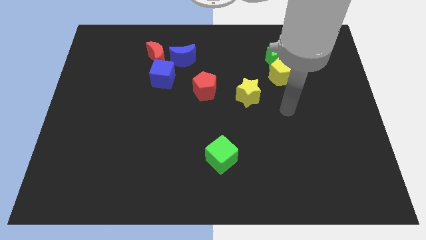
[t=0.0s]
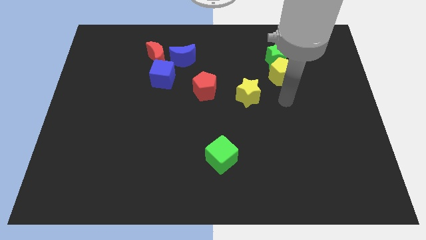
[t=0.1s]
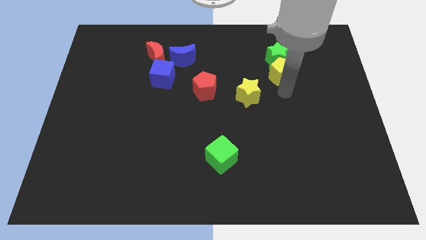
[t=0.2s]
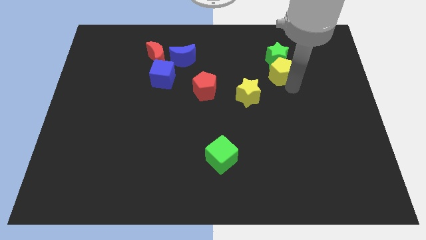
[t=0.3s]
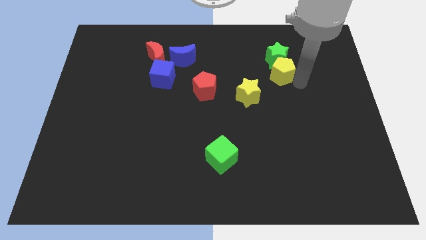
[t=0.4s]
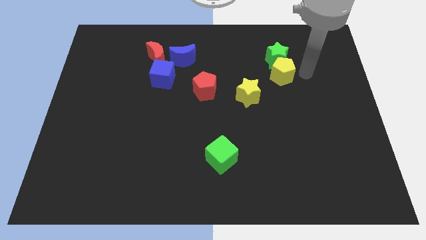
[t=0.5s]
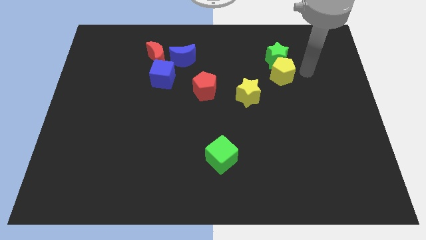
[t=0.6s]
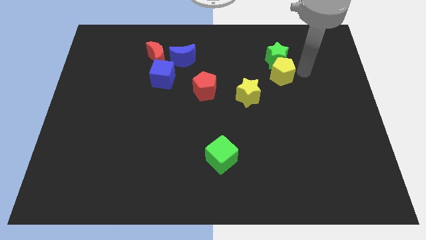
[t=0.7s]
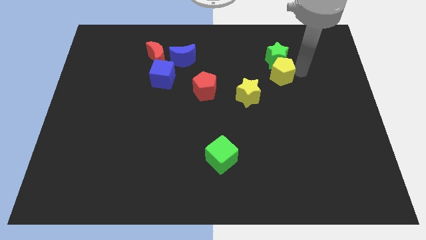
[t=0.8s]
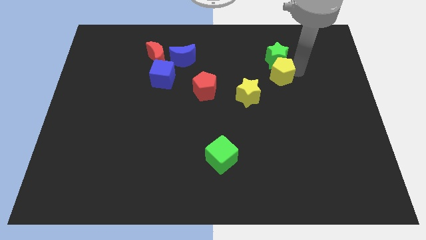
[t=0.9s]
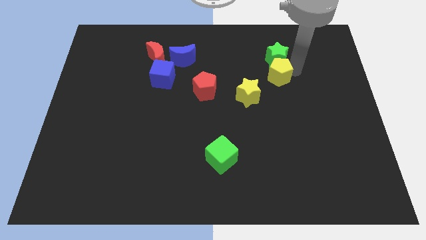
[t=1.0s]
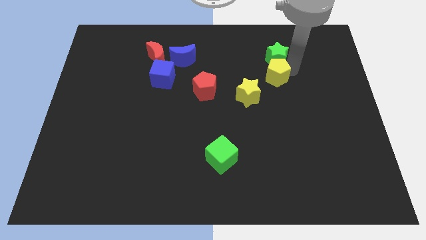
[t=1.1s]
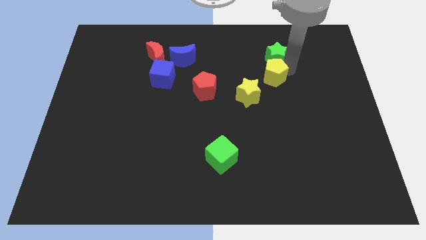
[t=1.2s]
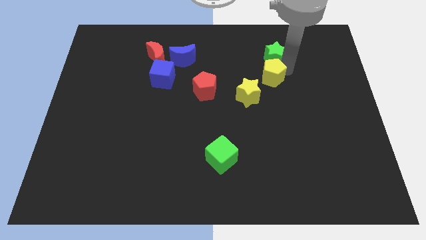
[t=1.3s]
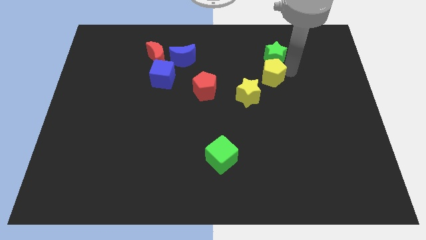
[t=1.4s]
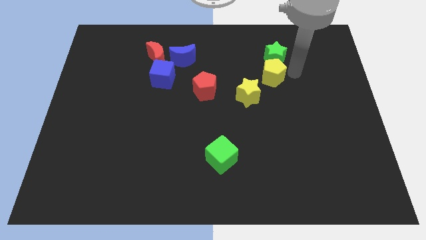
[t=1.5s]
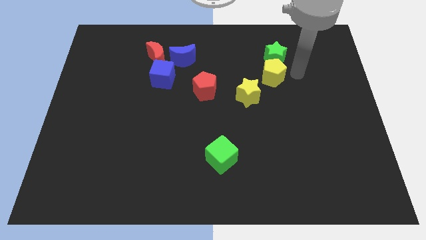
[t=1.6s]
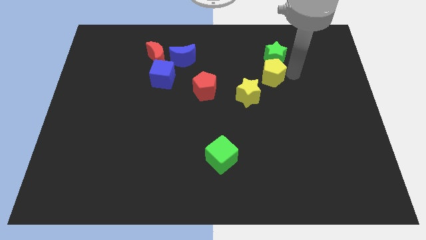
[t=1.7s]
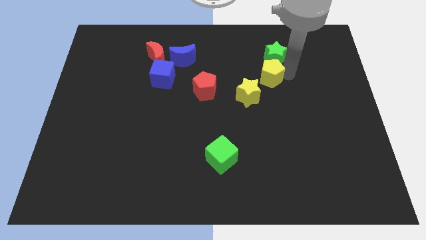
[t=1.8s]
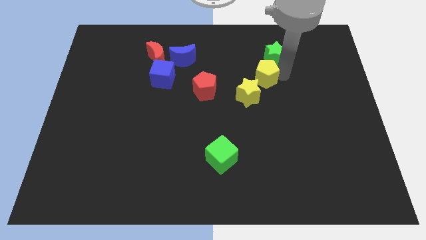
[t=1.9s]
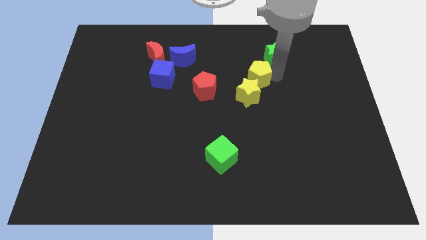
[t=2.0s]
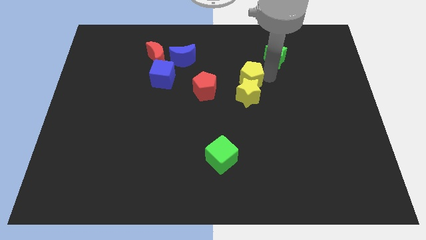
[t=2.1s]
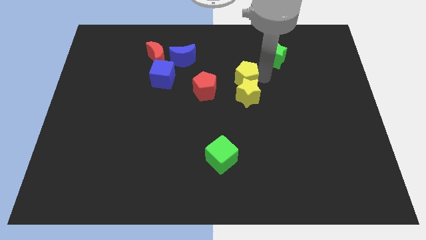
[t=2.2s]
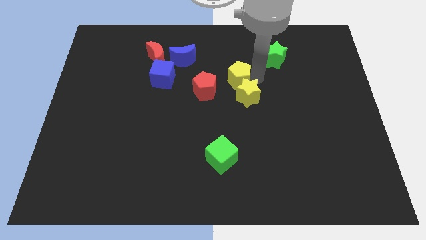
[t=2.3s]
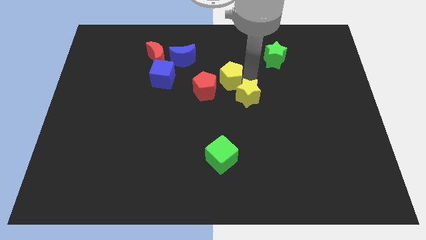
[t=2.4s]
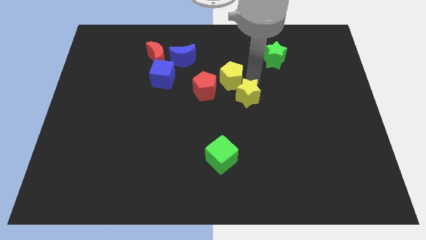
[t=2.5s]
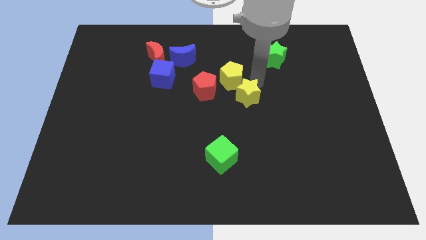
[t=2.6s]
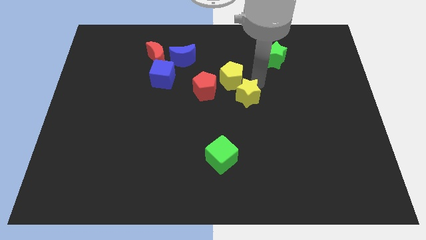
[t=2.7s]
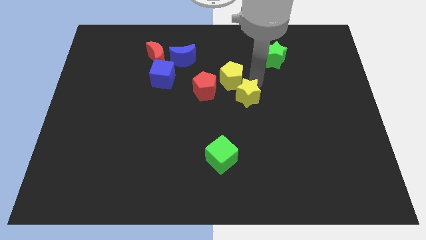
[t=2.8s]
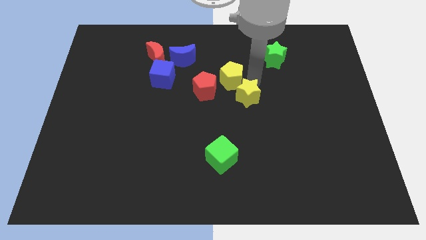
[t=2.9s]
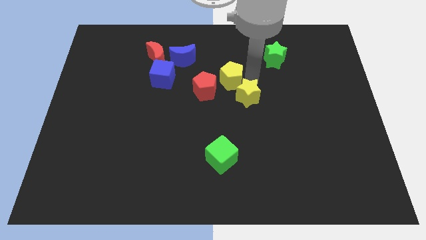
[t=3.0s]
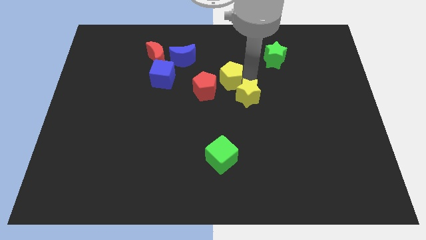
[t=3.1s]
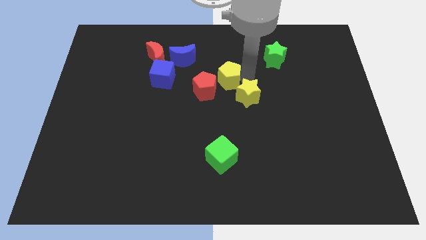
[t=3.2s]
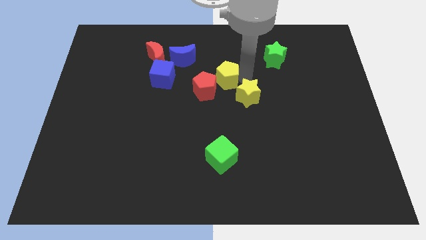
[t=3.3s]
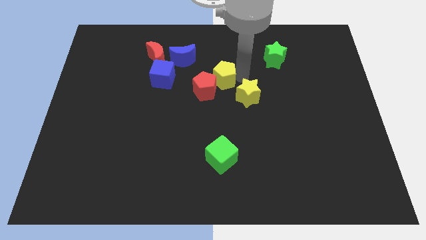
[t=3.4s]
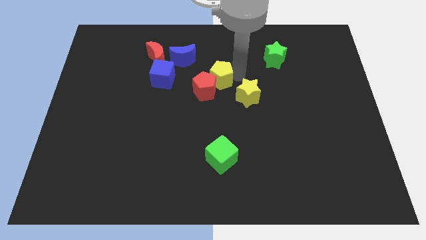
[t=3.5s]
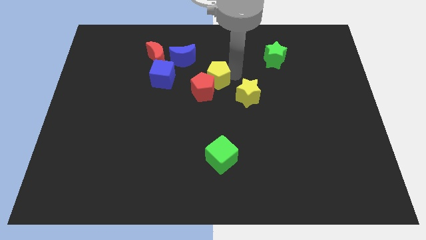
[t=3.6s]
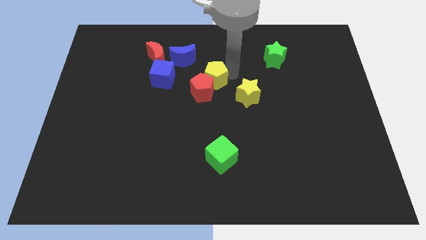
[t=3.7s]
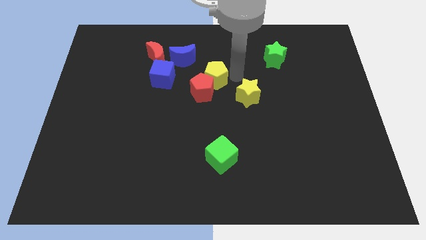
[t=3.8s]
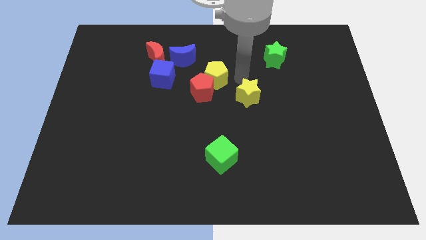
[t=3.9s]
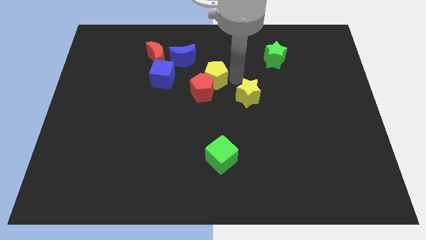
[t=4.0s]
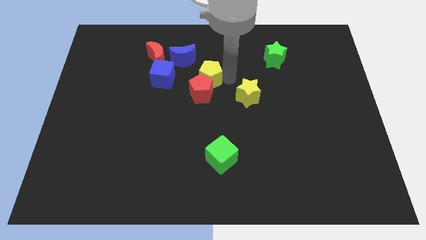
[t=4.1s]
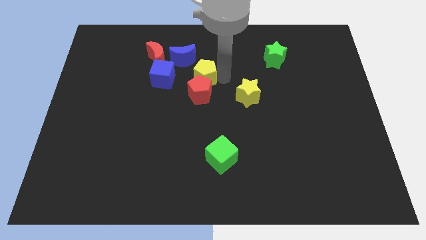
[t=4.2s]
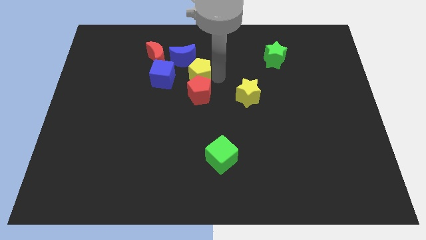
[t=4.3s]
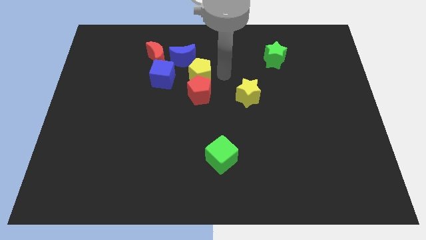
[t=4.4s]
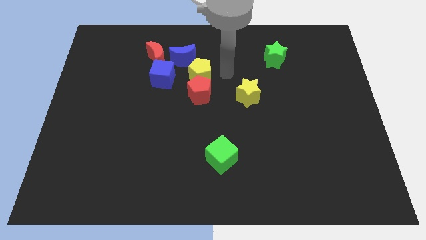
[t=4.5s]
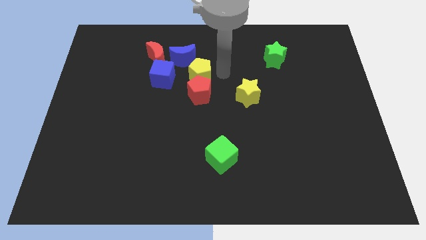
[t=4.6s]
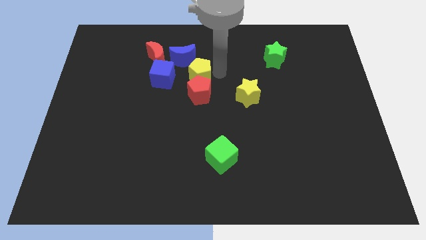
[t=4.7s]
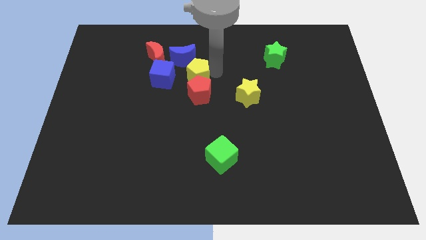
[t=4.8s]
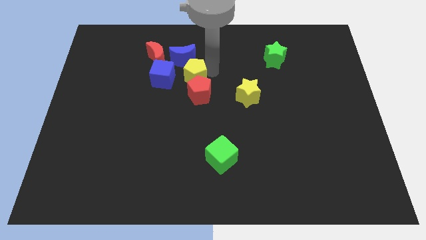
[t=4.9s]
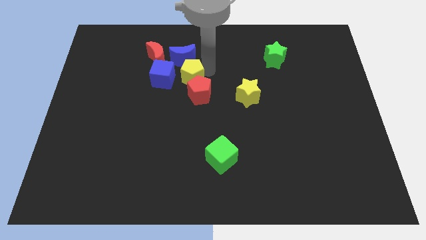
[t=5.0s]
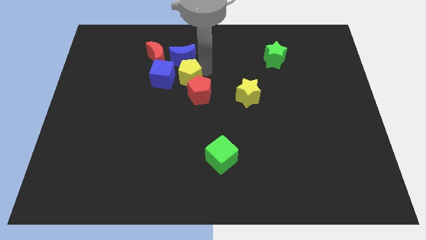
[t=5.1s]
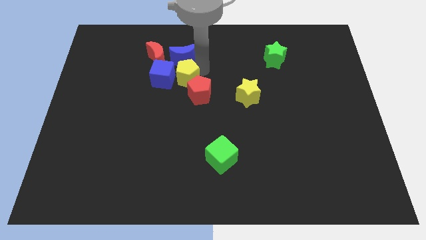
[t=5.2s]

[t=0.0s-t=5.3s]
push the yellow pentagon towards the blue cube

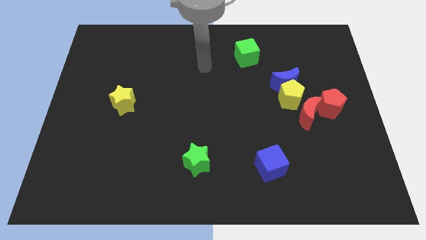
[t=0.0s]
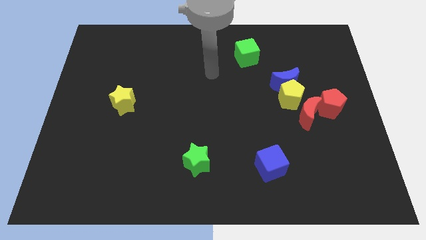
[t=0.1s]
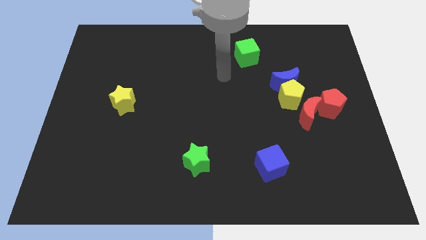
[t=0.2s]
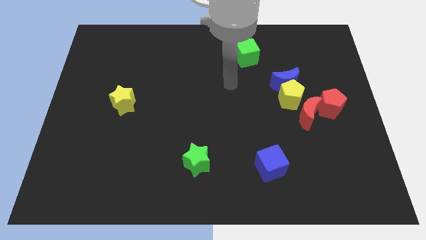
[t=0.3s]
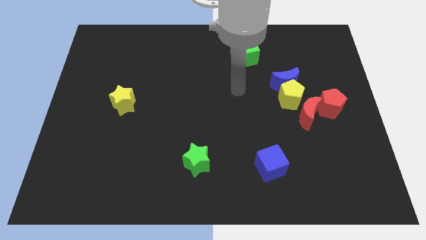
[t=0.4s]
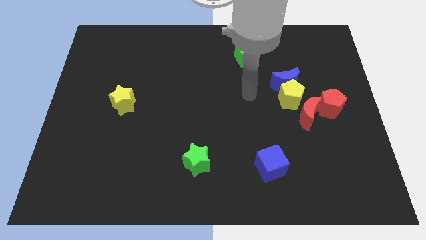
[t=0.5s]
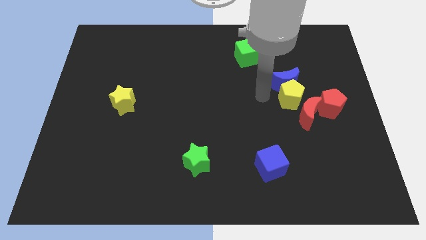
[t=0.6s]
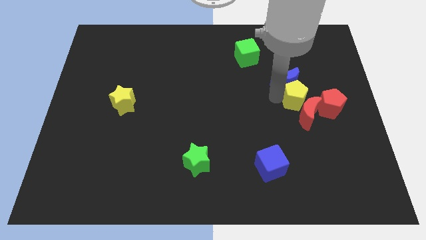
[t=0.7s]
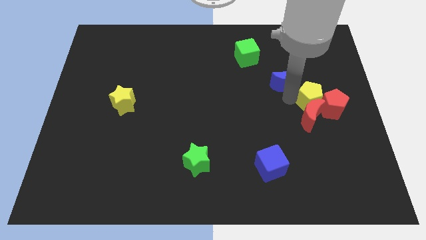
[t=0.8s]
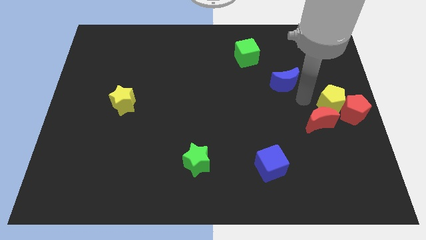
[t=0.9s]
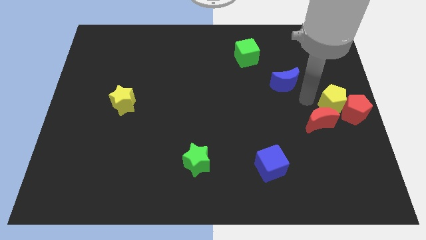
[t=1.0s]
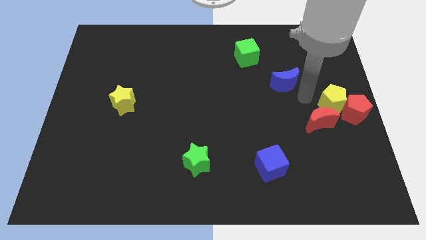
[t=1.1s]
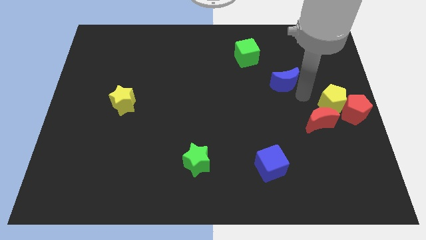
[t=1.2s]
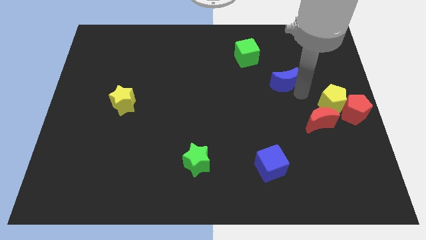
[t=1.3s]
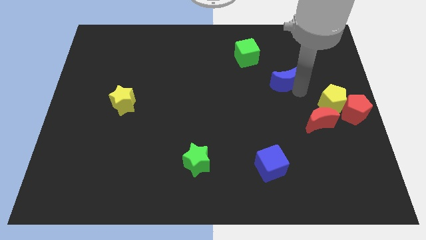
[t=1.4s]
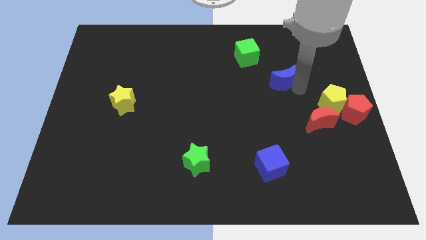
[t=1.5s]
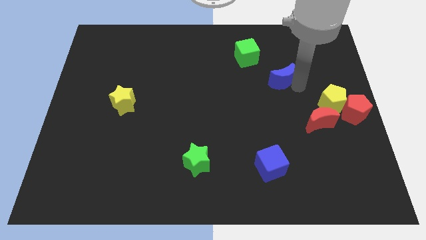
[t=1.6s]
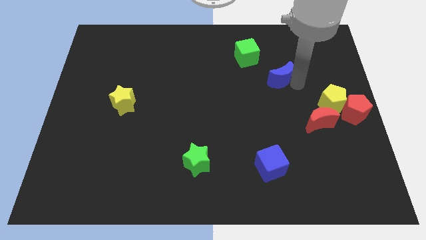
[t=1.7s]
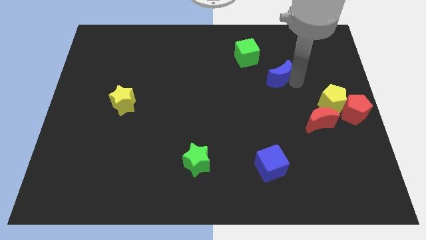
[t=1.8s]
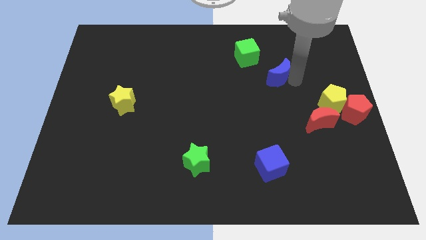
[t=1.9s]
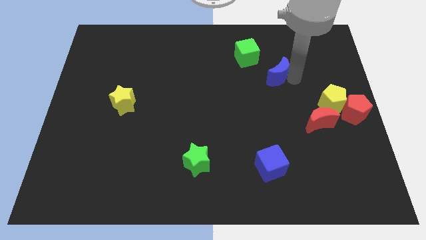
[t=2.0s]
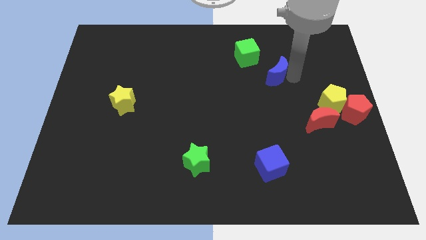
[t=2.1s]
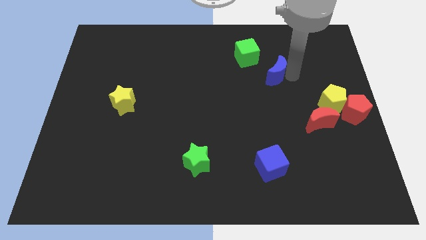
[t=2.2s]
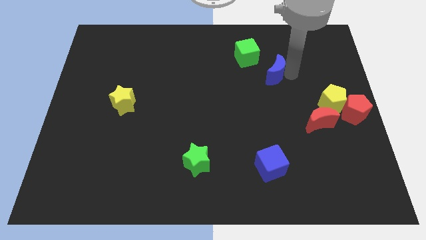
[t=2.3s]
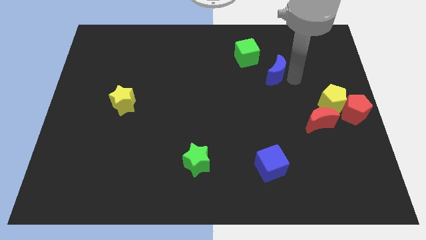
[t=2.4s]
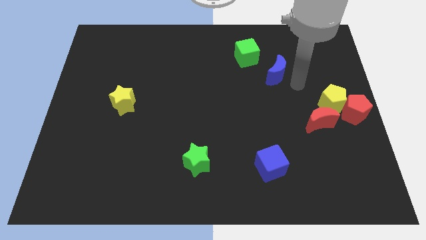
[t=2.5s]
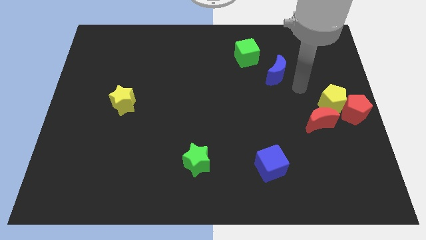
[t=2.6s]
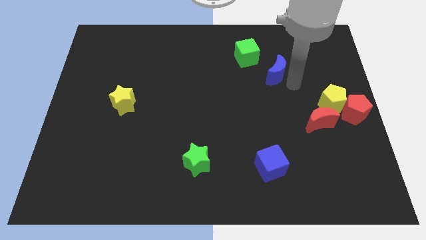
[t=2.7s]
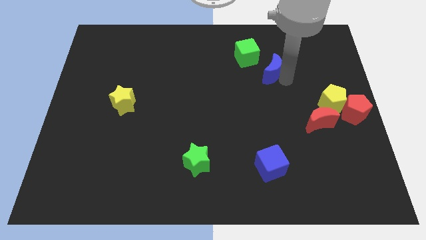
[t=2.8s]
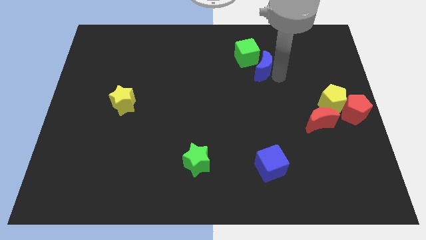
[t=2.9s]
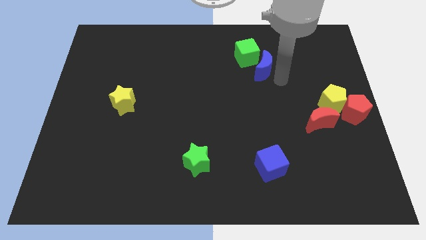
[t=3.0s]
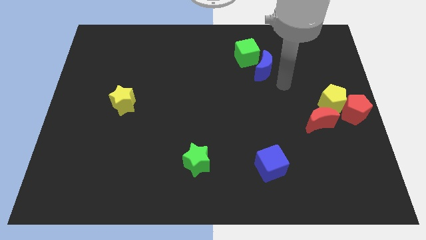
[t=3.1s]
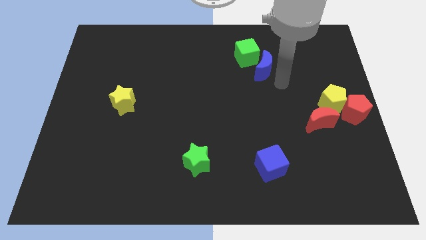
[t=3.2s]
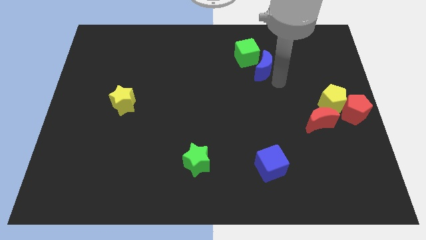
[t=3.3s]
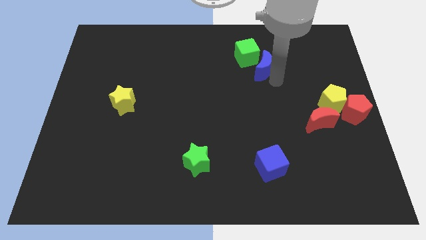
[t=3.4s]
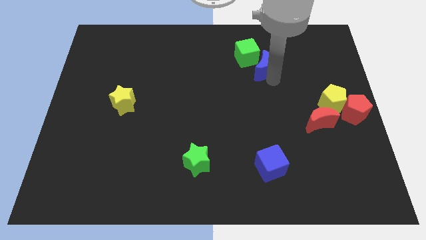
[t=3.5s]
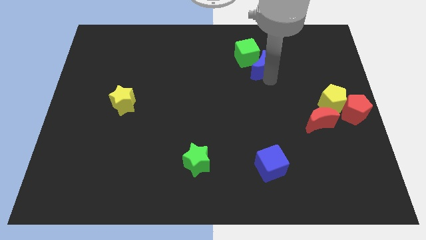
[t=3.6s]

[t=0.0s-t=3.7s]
push the blue moon next to the green cube
